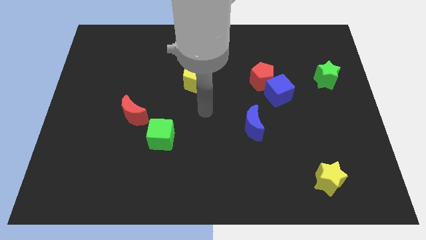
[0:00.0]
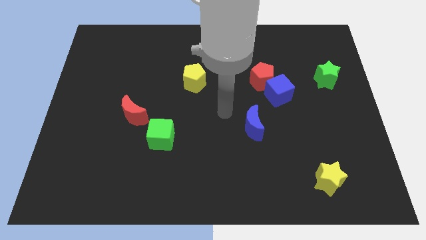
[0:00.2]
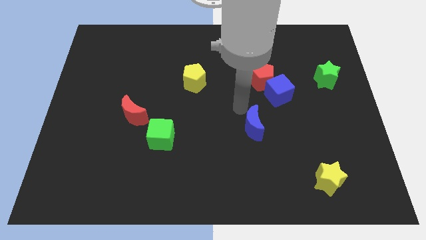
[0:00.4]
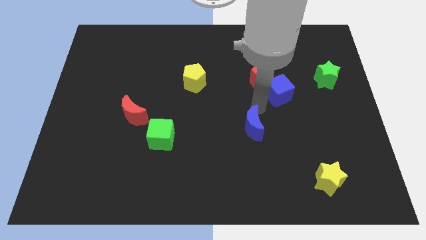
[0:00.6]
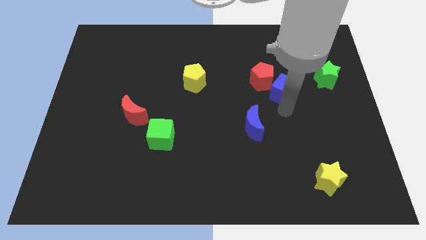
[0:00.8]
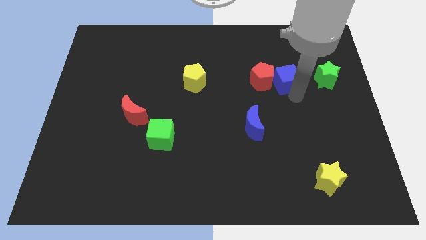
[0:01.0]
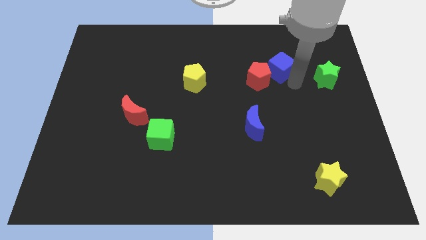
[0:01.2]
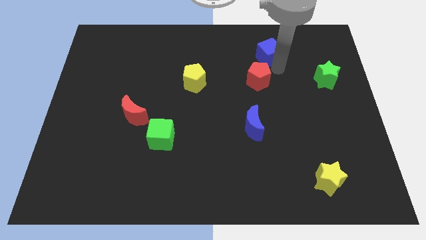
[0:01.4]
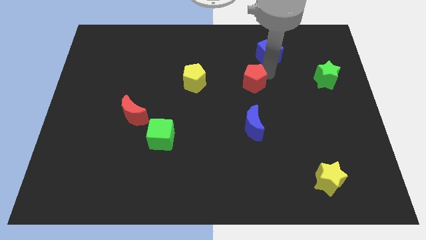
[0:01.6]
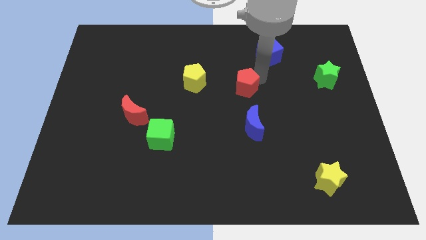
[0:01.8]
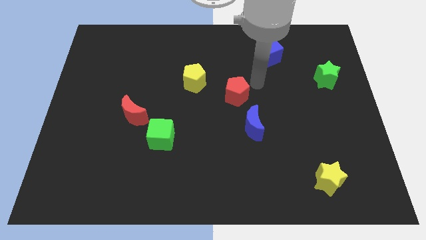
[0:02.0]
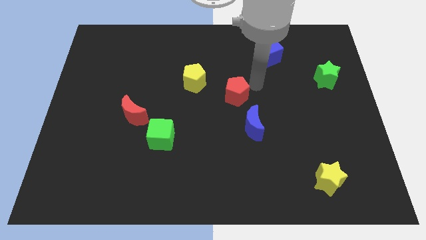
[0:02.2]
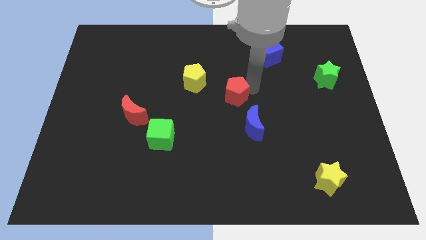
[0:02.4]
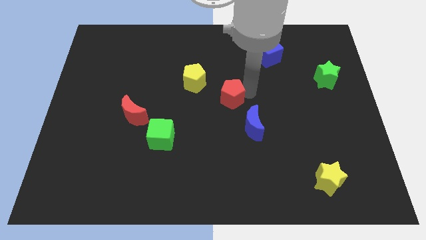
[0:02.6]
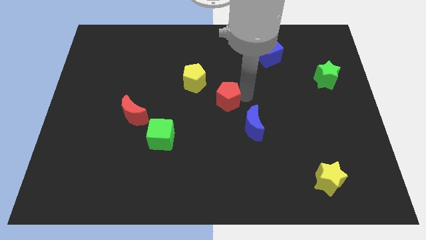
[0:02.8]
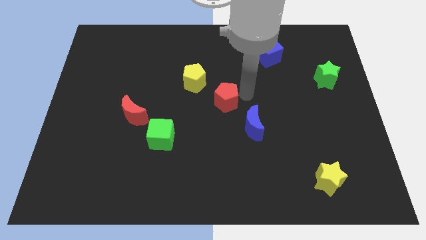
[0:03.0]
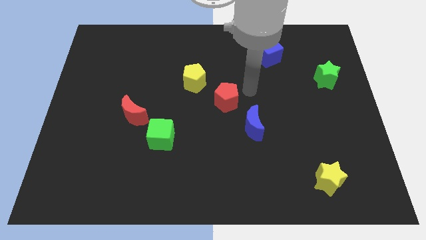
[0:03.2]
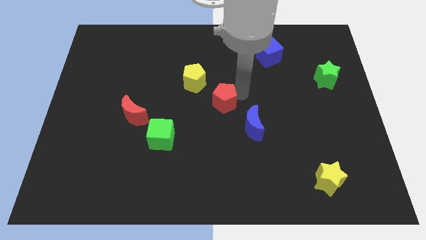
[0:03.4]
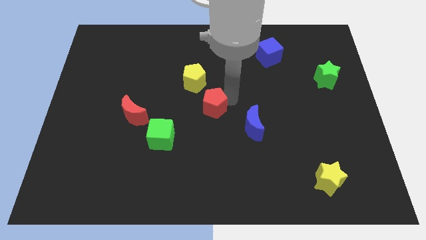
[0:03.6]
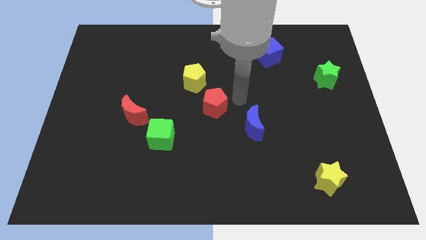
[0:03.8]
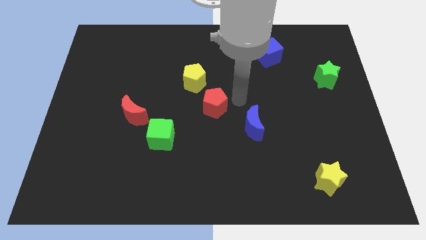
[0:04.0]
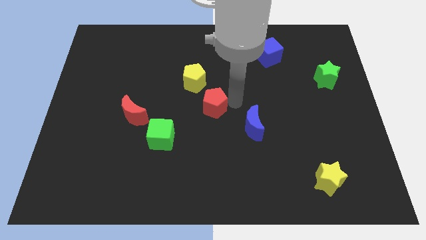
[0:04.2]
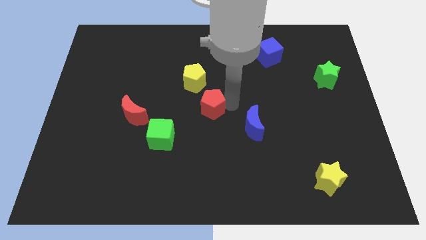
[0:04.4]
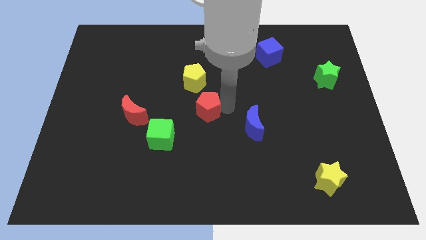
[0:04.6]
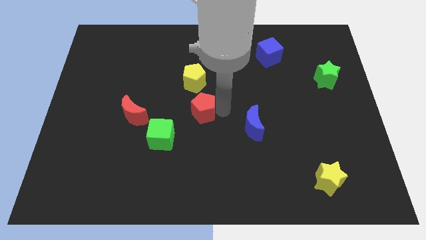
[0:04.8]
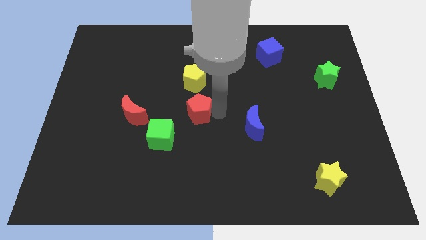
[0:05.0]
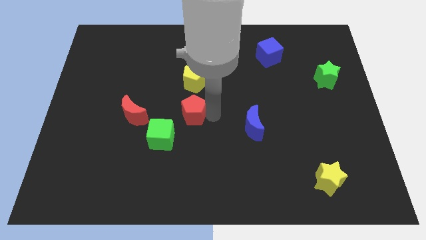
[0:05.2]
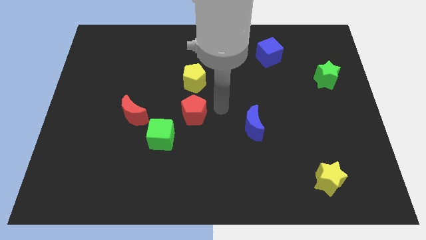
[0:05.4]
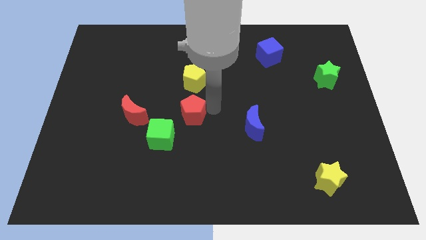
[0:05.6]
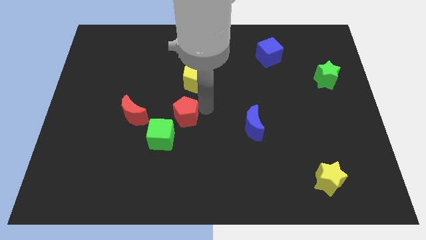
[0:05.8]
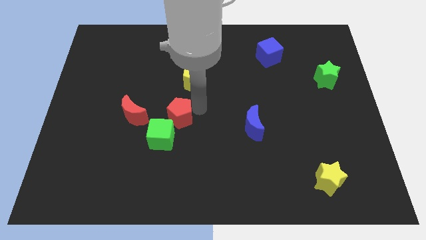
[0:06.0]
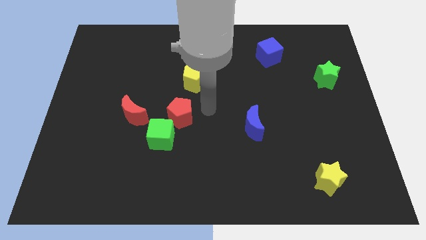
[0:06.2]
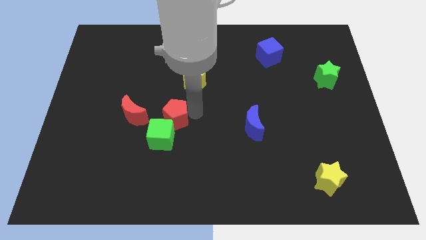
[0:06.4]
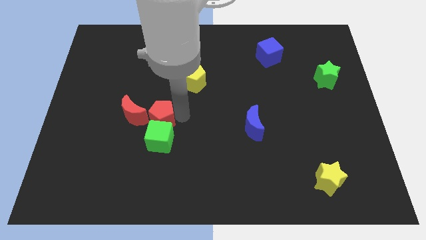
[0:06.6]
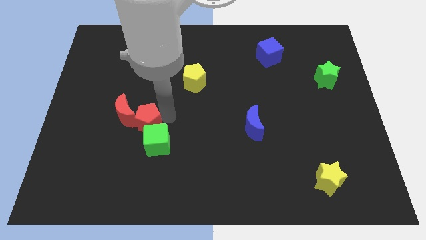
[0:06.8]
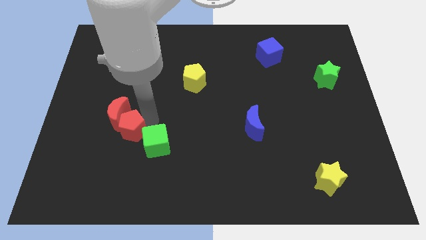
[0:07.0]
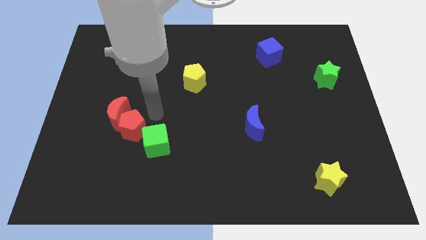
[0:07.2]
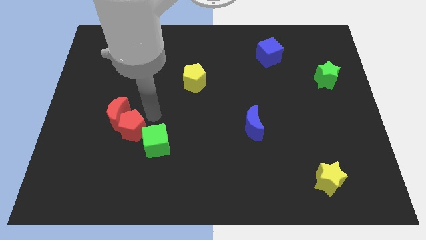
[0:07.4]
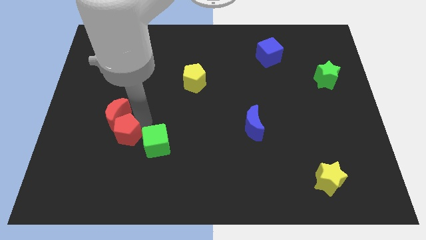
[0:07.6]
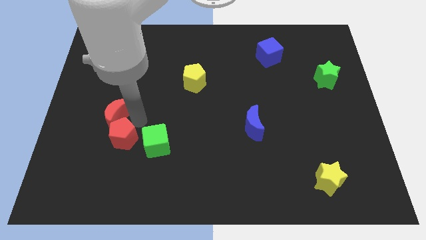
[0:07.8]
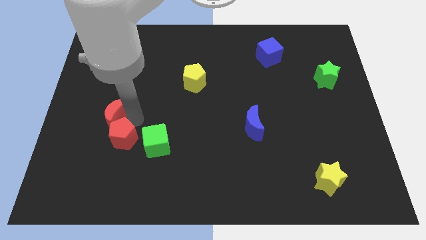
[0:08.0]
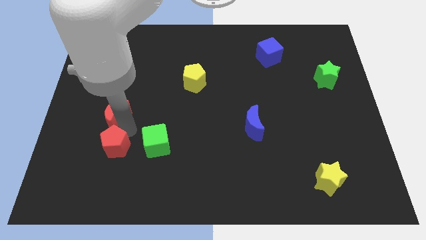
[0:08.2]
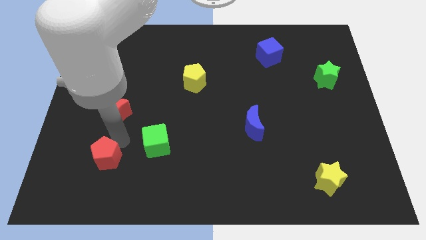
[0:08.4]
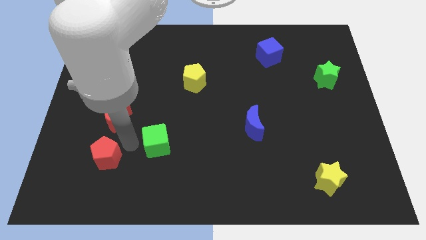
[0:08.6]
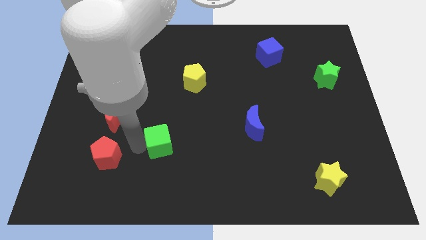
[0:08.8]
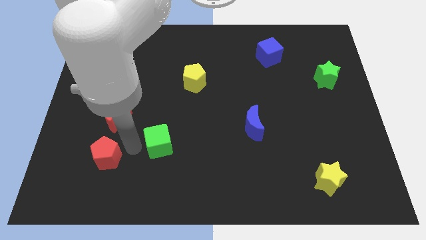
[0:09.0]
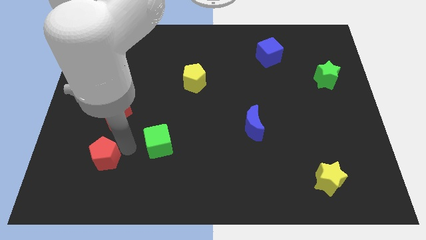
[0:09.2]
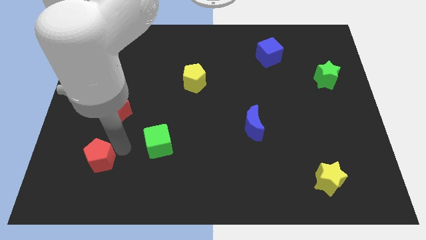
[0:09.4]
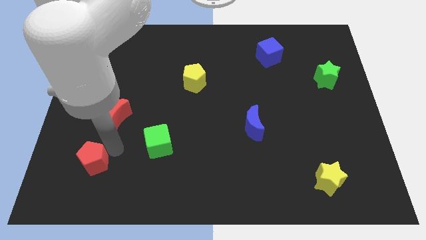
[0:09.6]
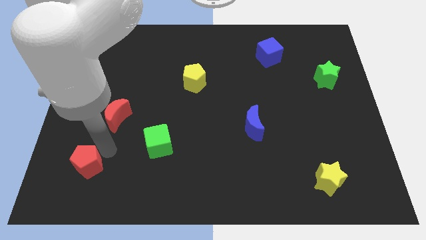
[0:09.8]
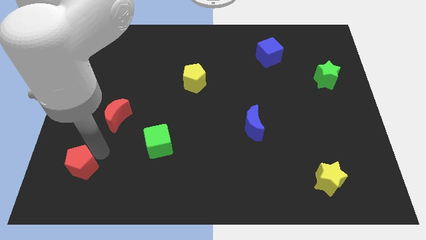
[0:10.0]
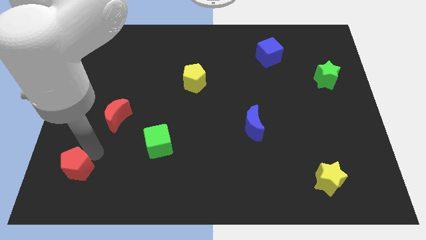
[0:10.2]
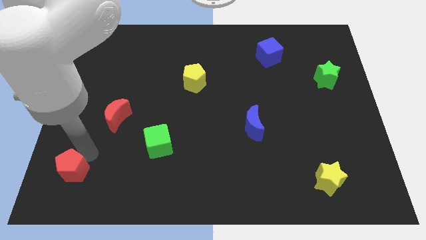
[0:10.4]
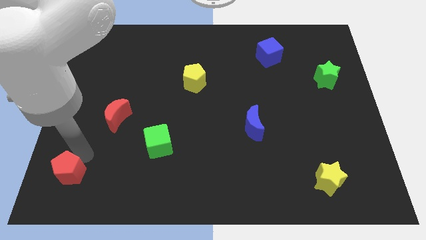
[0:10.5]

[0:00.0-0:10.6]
slide the red pentagon to the lower left corner

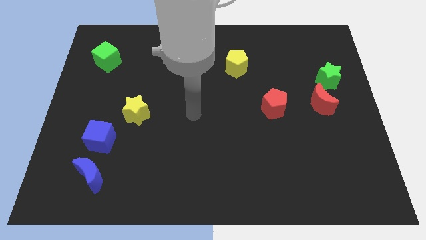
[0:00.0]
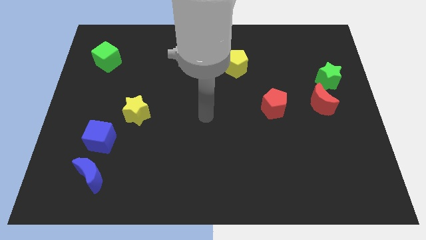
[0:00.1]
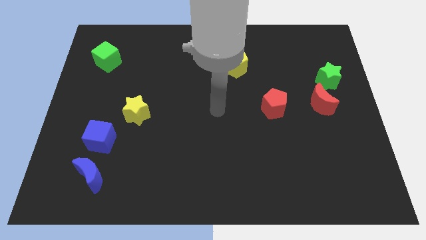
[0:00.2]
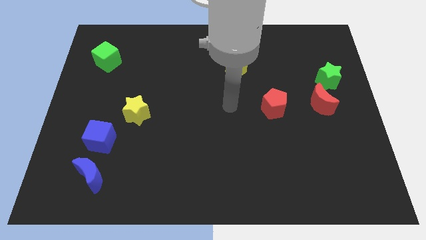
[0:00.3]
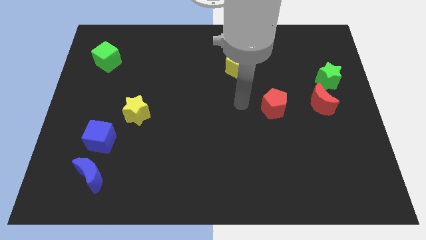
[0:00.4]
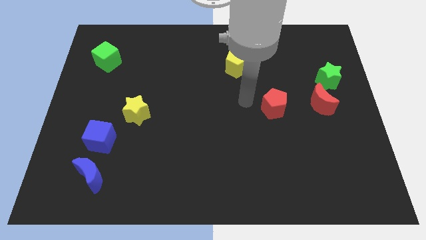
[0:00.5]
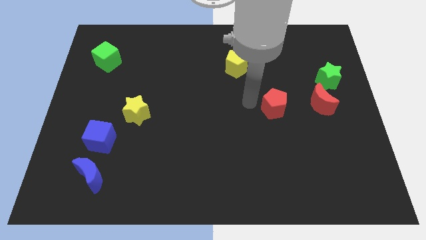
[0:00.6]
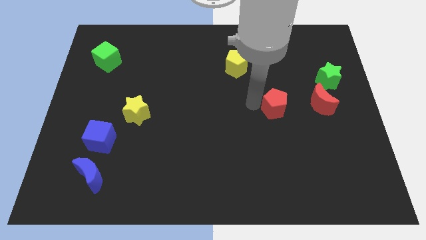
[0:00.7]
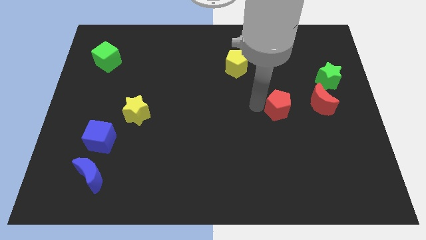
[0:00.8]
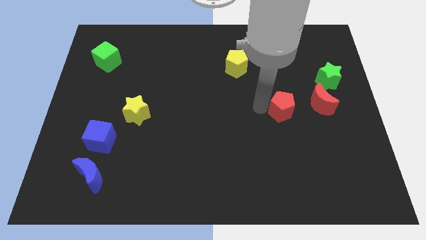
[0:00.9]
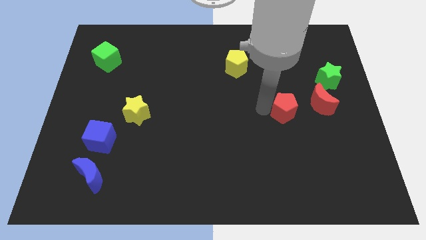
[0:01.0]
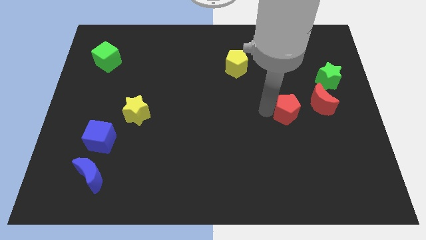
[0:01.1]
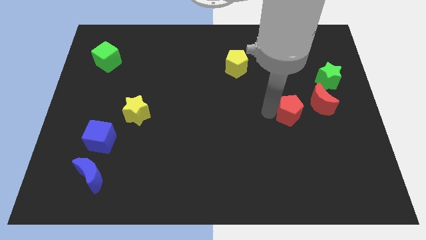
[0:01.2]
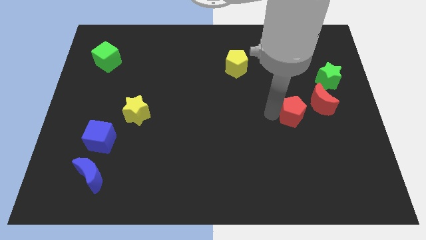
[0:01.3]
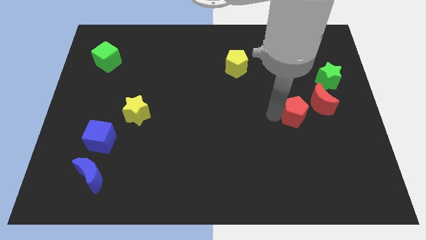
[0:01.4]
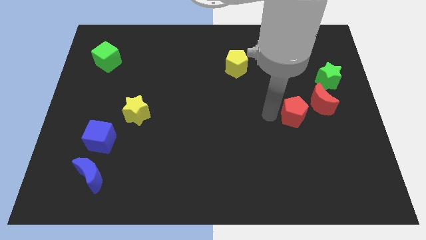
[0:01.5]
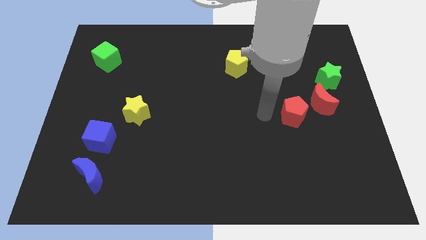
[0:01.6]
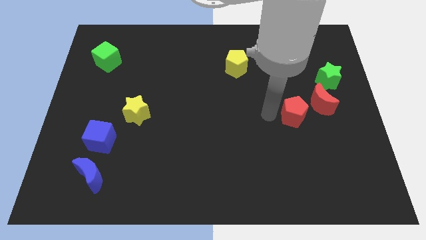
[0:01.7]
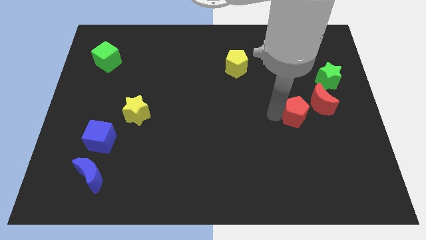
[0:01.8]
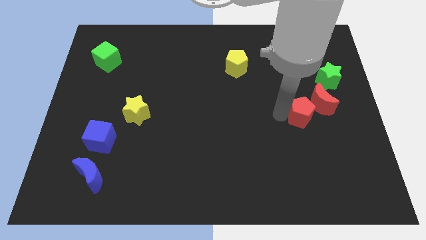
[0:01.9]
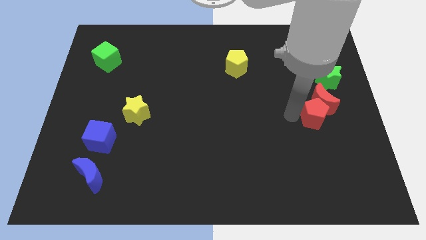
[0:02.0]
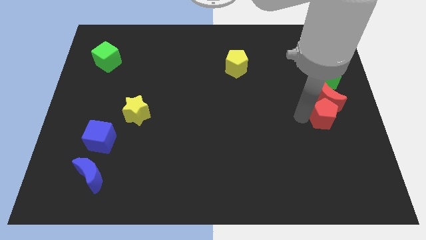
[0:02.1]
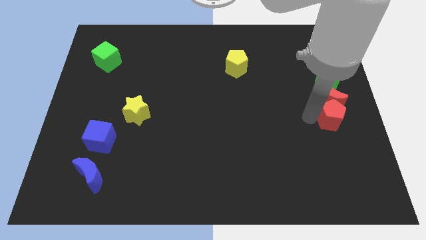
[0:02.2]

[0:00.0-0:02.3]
slide the red pentagon to the right side of the board

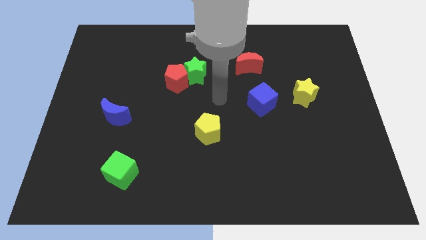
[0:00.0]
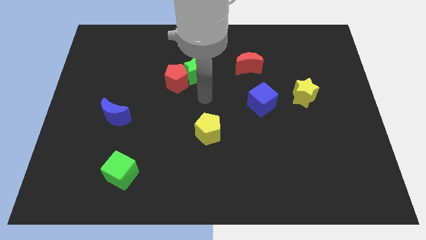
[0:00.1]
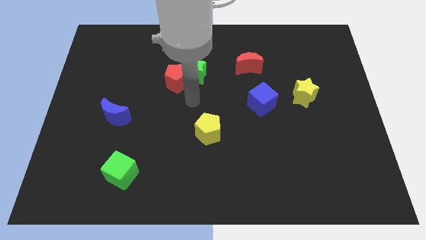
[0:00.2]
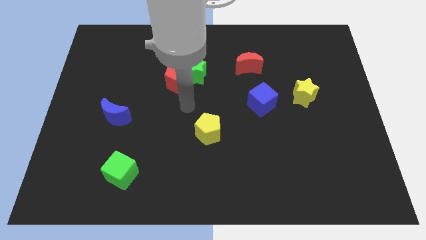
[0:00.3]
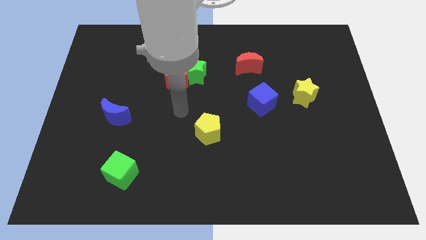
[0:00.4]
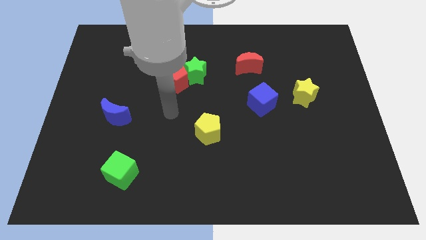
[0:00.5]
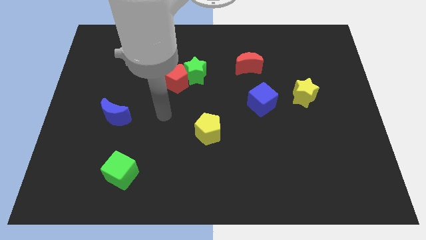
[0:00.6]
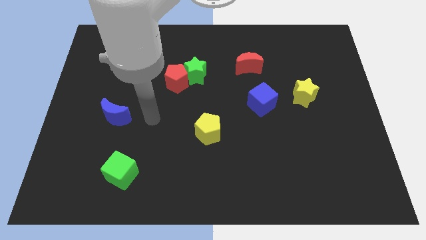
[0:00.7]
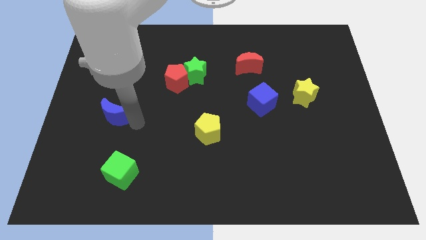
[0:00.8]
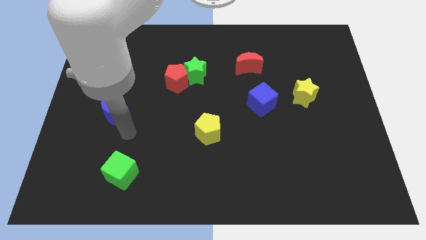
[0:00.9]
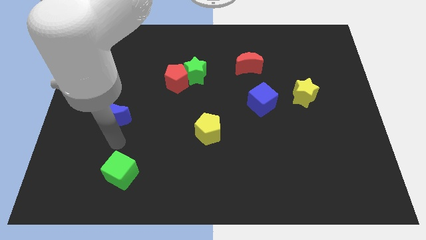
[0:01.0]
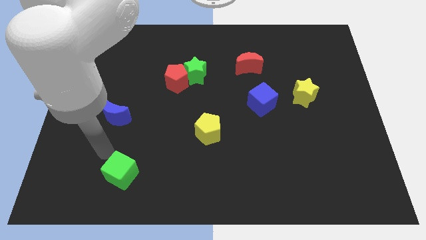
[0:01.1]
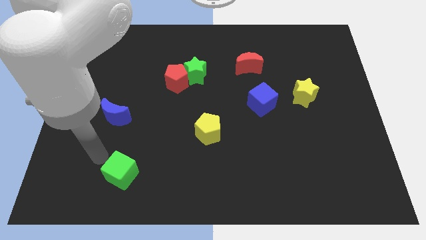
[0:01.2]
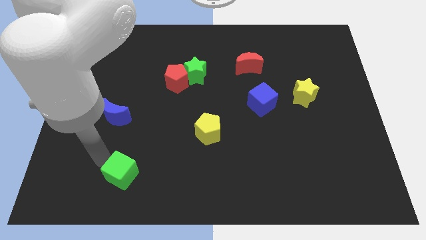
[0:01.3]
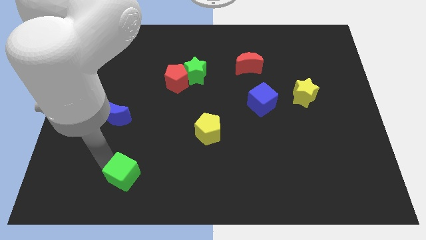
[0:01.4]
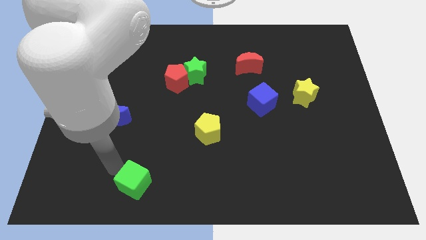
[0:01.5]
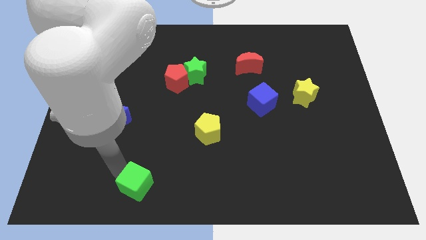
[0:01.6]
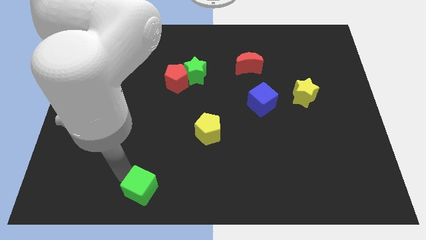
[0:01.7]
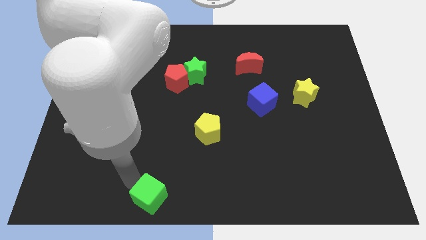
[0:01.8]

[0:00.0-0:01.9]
push the green cube to the bottom
